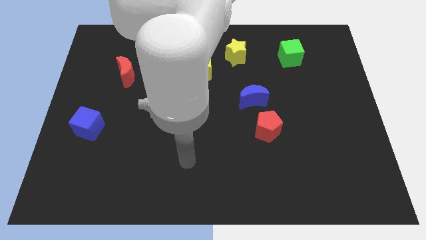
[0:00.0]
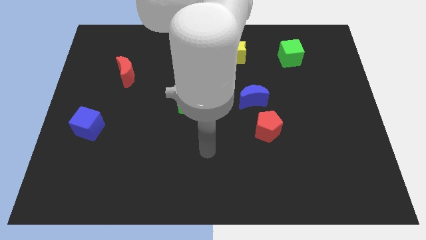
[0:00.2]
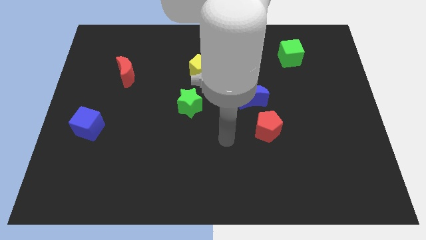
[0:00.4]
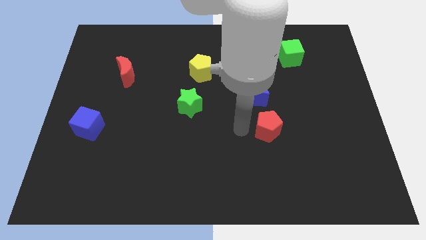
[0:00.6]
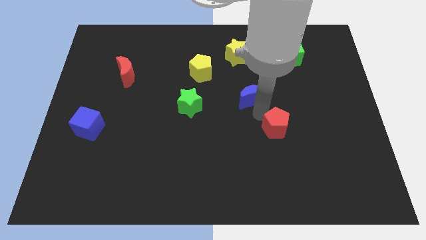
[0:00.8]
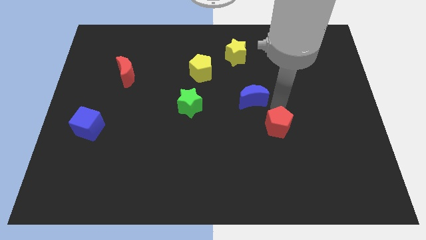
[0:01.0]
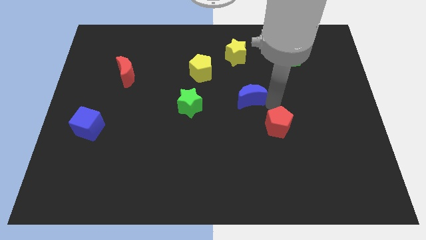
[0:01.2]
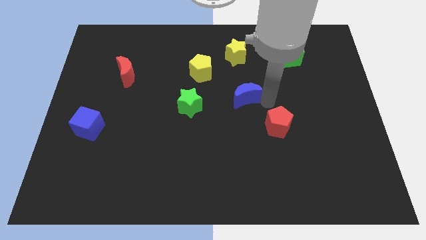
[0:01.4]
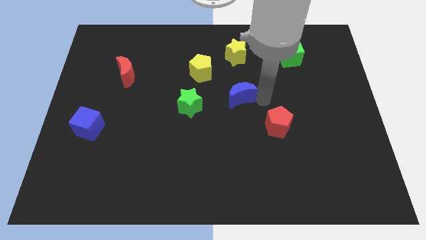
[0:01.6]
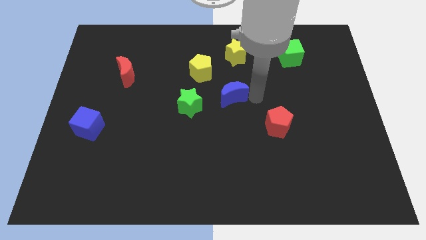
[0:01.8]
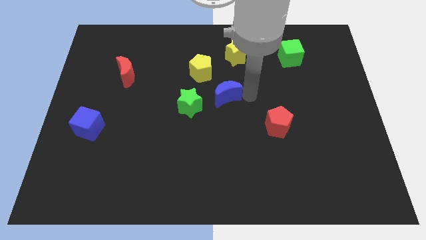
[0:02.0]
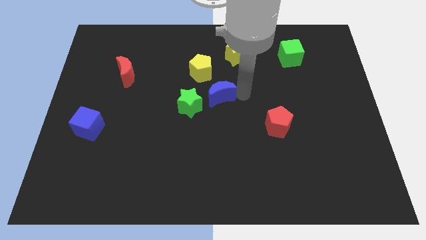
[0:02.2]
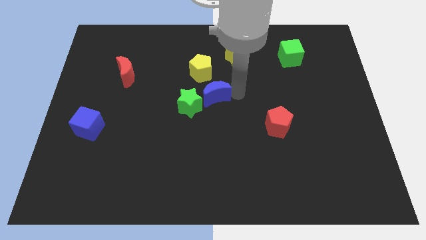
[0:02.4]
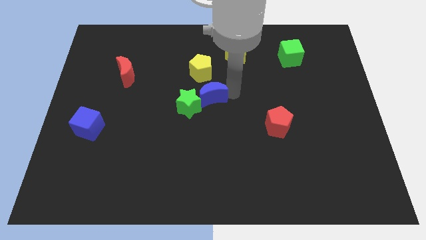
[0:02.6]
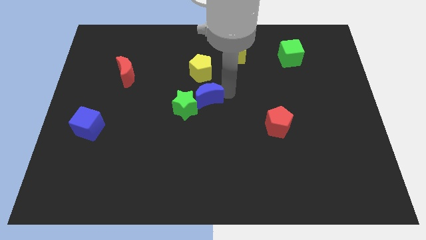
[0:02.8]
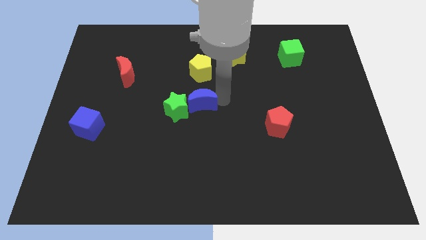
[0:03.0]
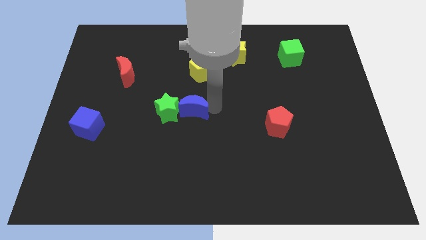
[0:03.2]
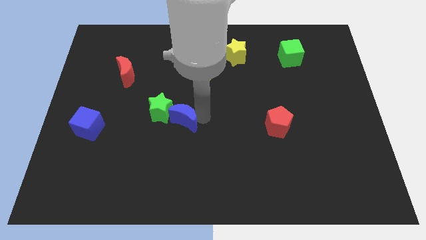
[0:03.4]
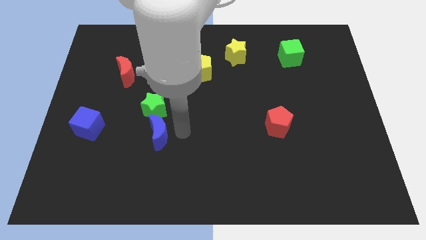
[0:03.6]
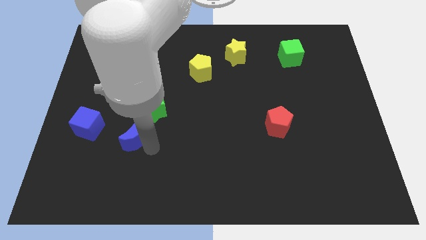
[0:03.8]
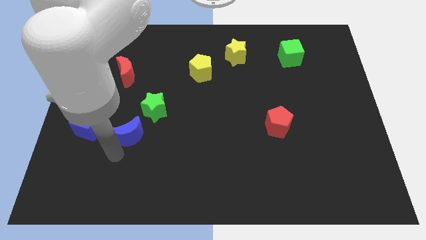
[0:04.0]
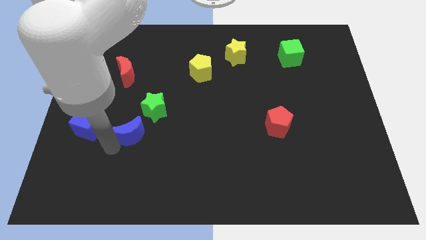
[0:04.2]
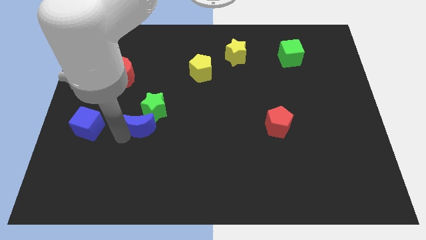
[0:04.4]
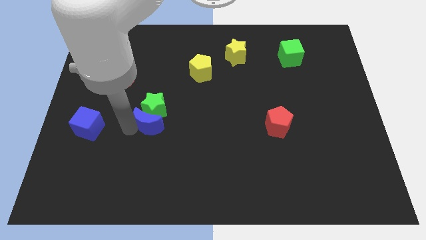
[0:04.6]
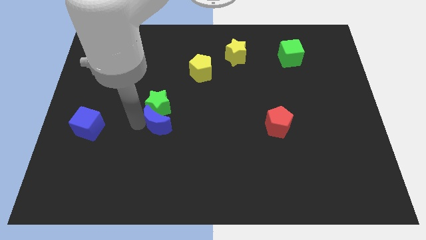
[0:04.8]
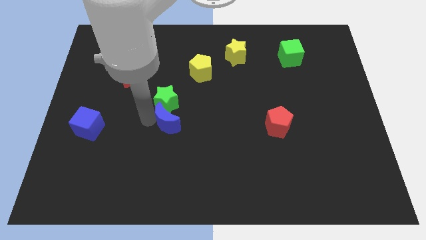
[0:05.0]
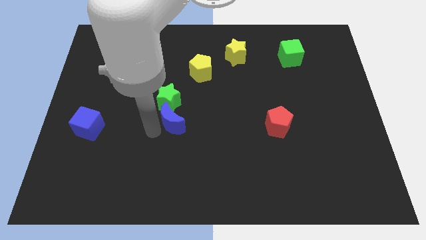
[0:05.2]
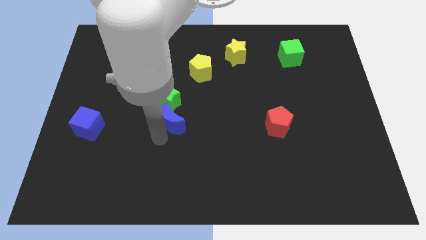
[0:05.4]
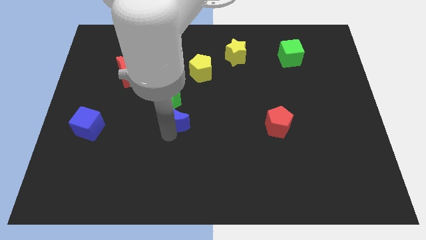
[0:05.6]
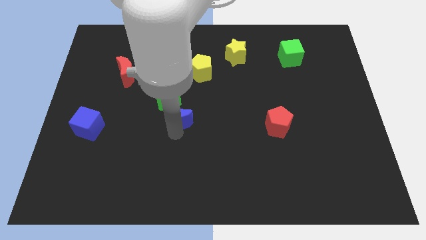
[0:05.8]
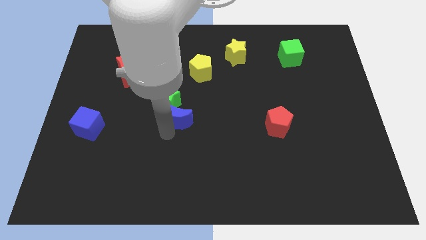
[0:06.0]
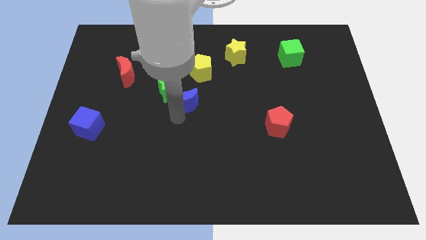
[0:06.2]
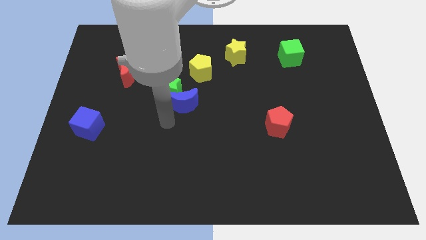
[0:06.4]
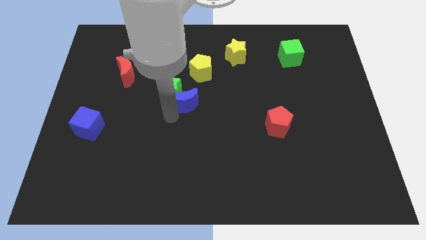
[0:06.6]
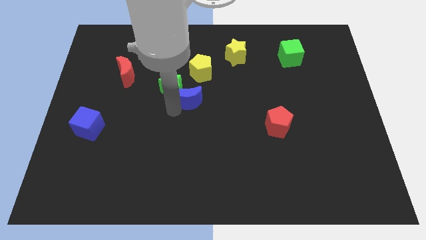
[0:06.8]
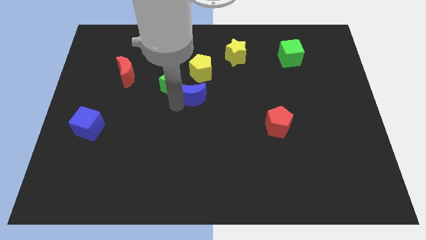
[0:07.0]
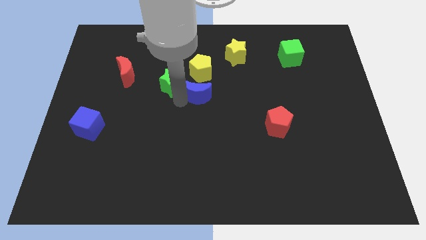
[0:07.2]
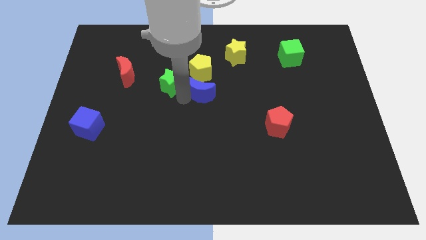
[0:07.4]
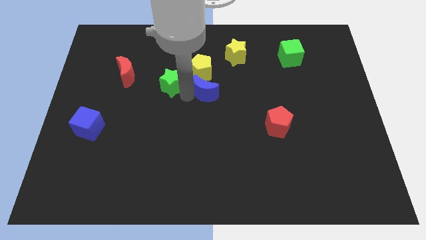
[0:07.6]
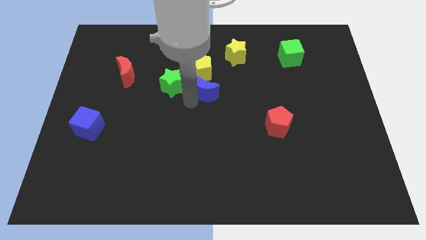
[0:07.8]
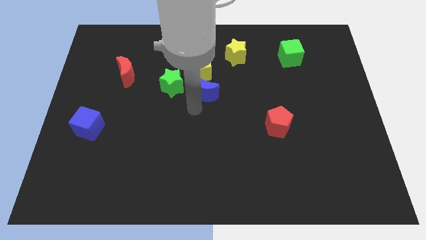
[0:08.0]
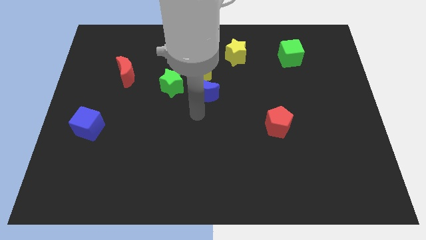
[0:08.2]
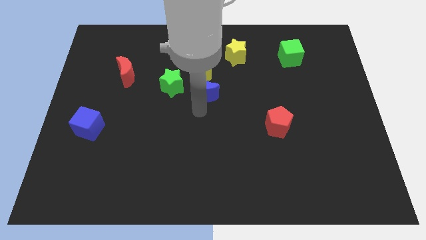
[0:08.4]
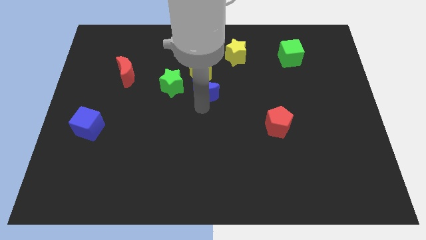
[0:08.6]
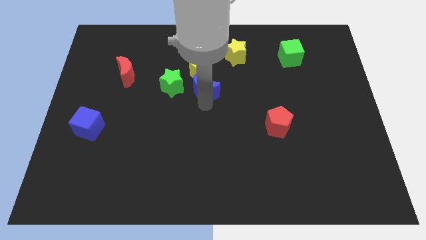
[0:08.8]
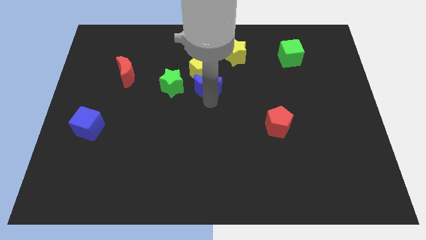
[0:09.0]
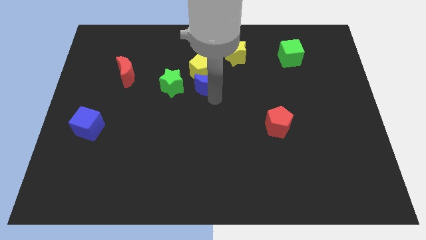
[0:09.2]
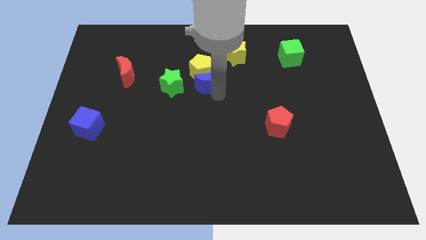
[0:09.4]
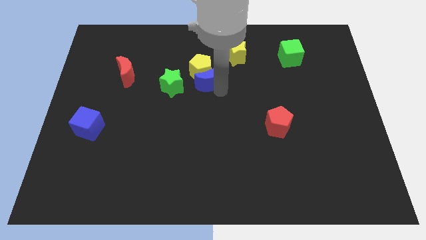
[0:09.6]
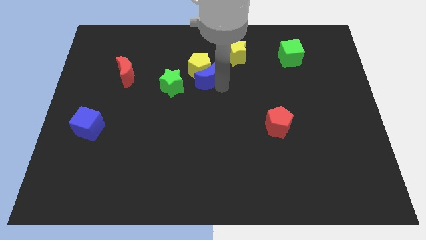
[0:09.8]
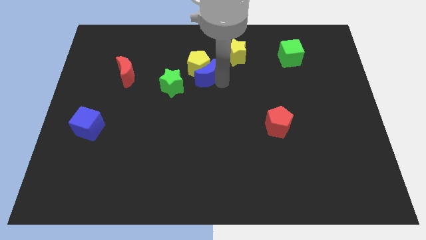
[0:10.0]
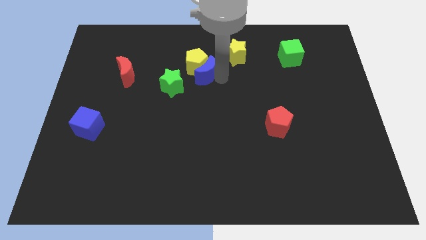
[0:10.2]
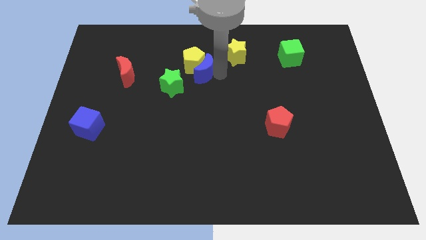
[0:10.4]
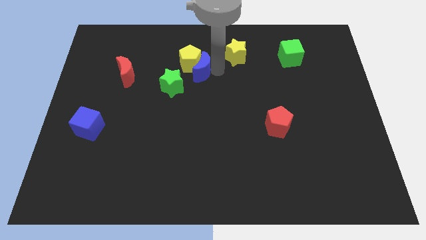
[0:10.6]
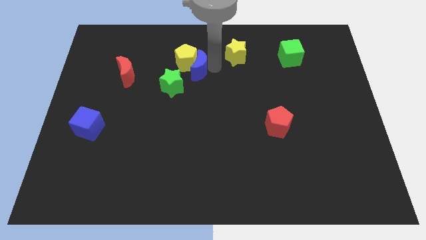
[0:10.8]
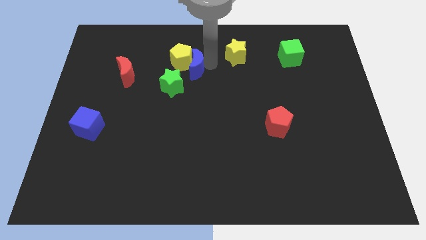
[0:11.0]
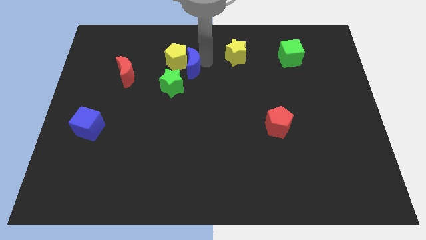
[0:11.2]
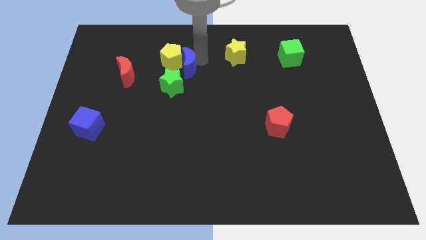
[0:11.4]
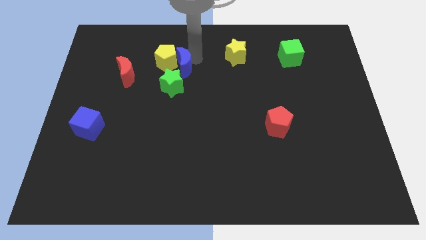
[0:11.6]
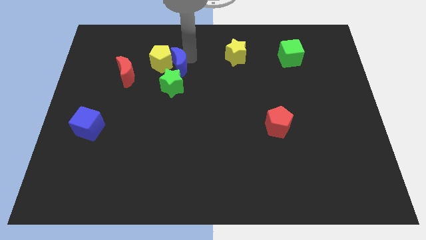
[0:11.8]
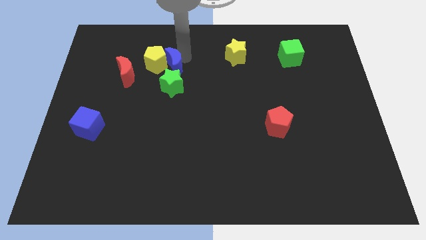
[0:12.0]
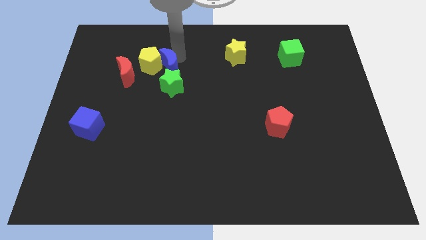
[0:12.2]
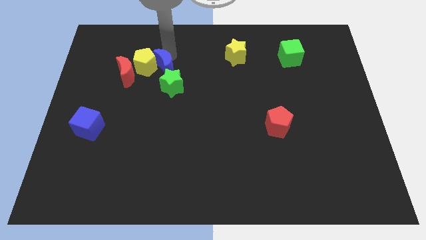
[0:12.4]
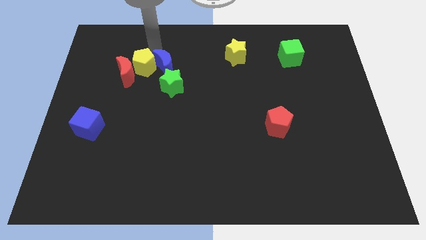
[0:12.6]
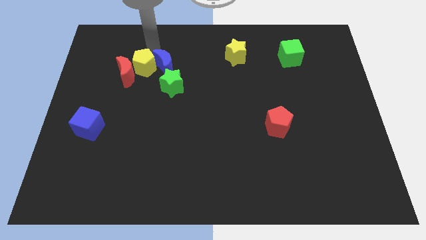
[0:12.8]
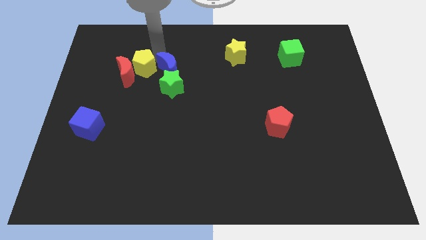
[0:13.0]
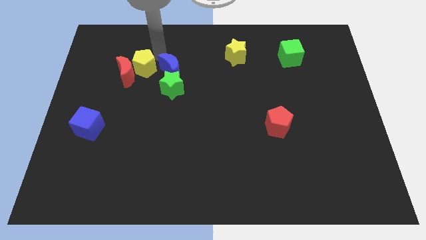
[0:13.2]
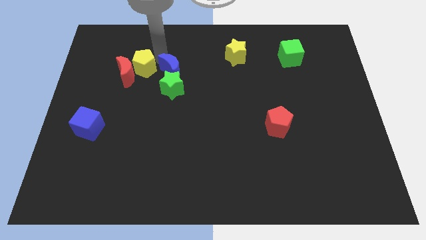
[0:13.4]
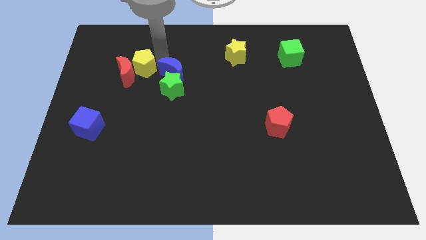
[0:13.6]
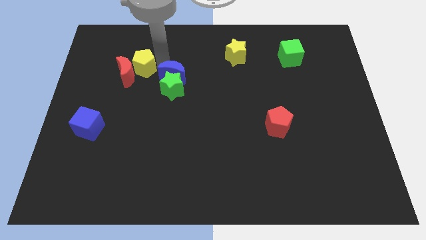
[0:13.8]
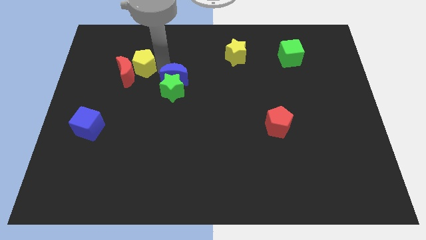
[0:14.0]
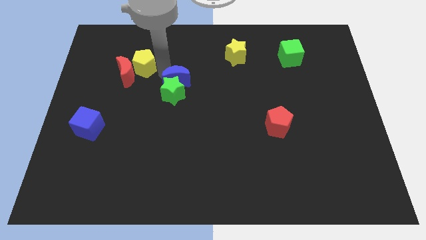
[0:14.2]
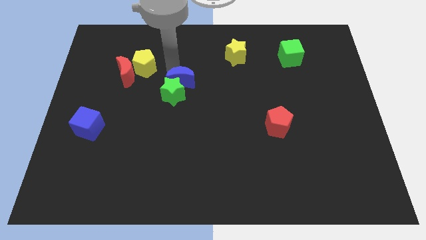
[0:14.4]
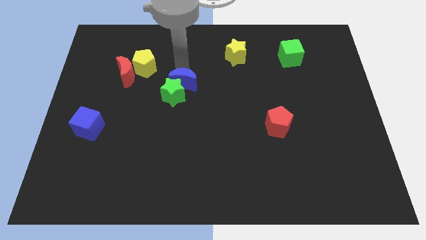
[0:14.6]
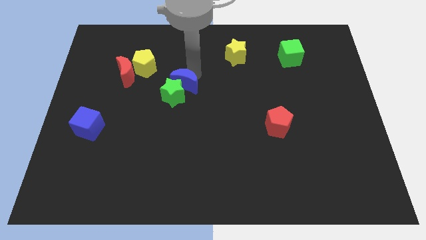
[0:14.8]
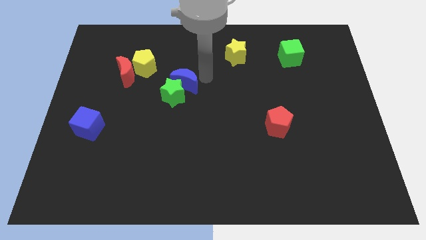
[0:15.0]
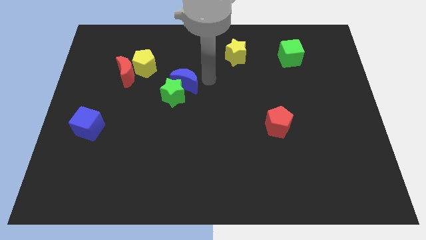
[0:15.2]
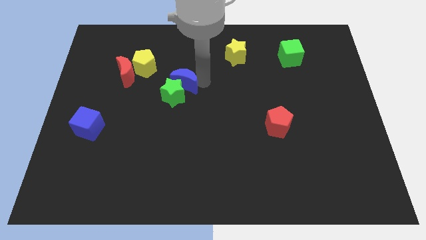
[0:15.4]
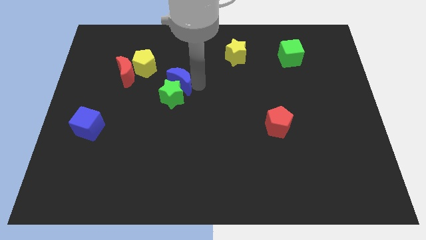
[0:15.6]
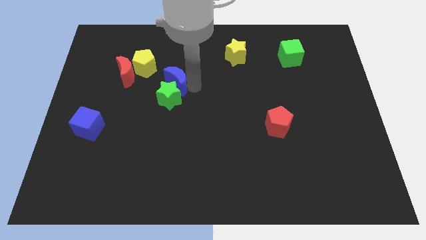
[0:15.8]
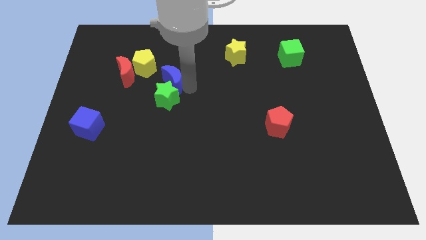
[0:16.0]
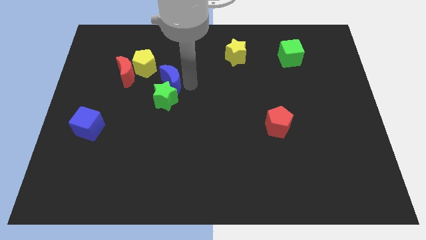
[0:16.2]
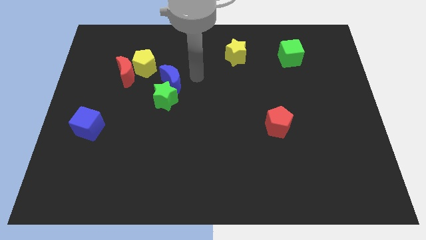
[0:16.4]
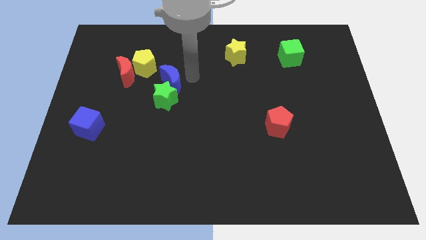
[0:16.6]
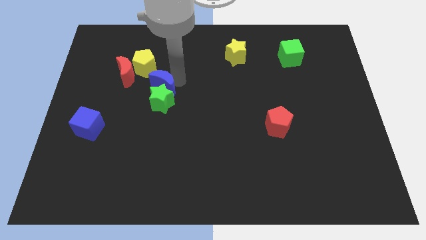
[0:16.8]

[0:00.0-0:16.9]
put the blue moon diagonally down and to the right of the red moon

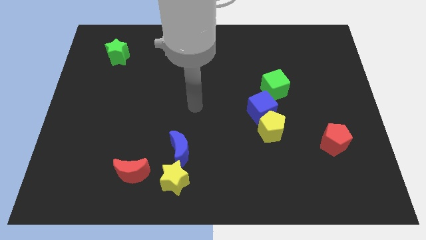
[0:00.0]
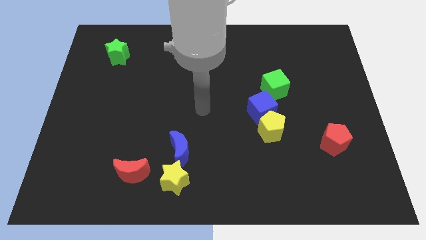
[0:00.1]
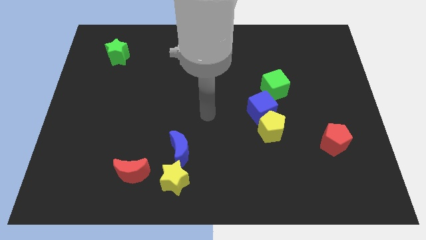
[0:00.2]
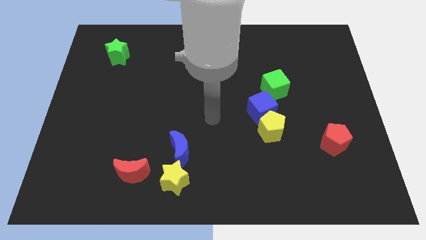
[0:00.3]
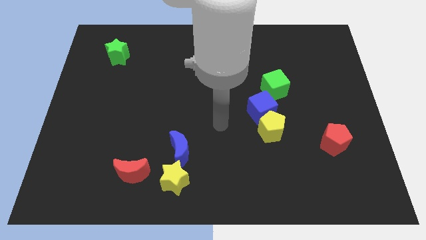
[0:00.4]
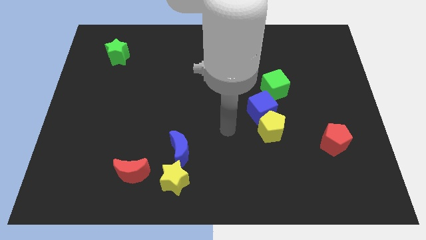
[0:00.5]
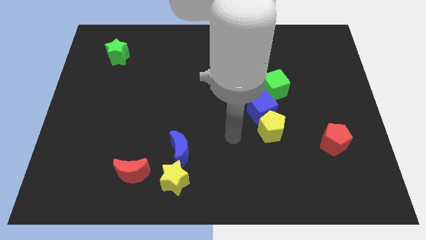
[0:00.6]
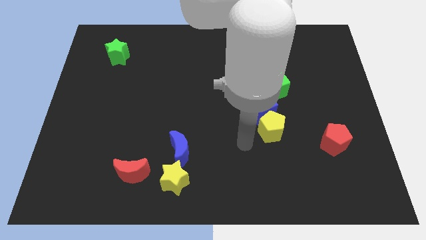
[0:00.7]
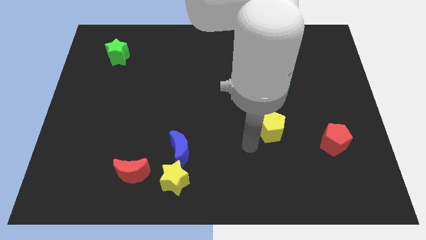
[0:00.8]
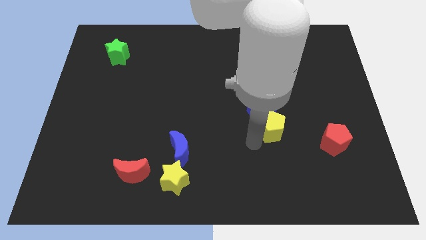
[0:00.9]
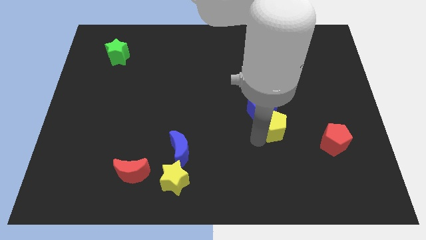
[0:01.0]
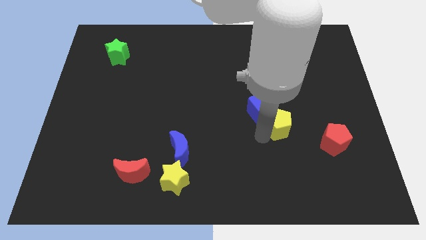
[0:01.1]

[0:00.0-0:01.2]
put the yellow pentagon right of the blue cube
